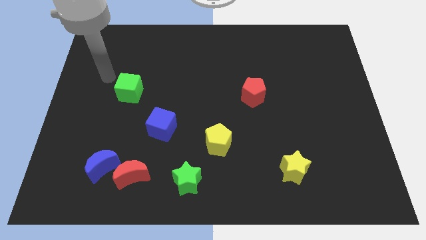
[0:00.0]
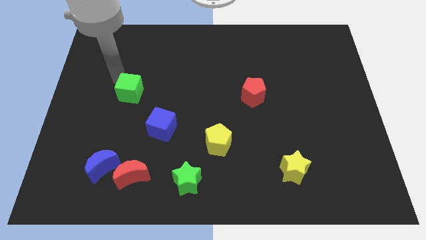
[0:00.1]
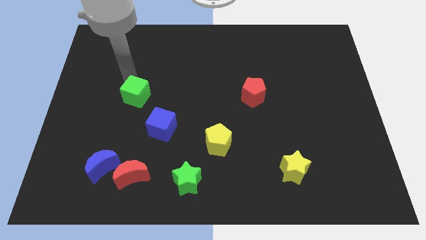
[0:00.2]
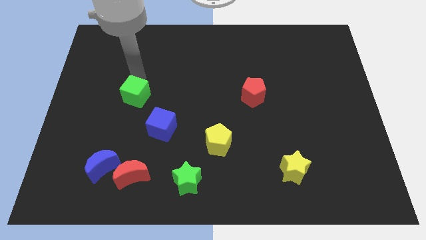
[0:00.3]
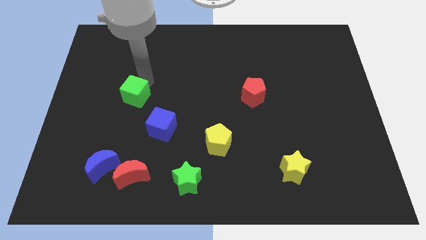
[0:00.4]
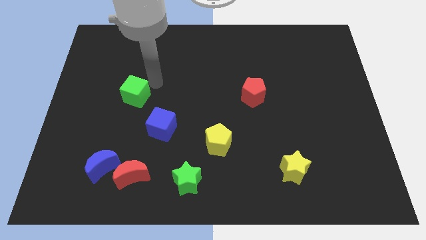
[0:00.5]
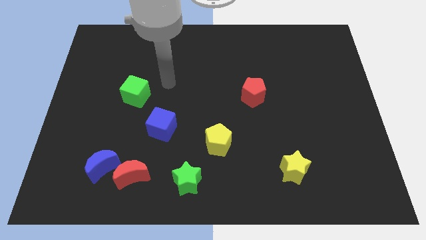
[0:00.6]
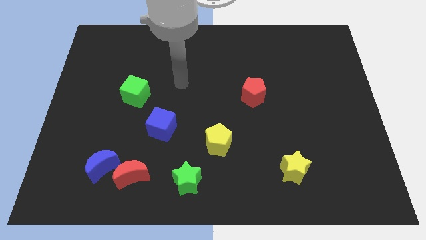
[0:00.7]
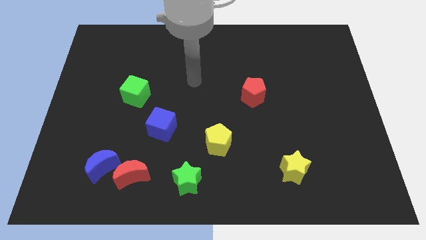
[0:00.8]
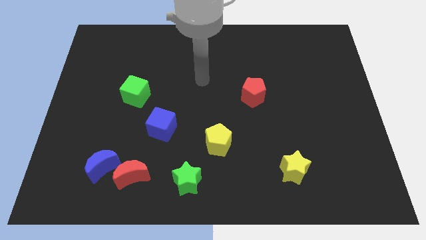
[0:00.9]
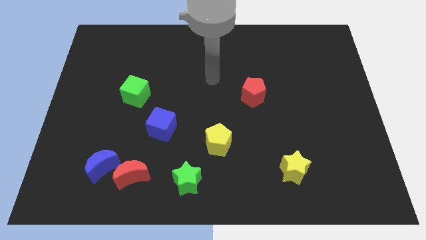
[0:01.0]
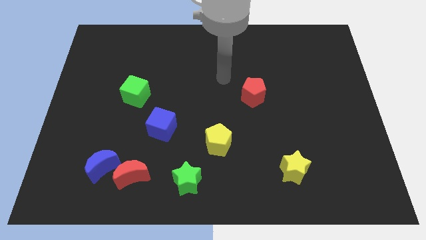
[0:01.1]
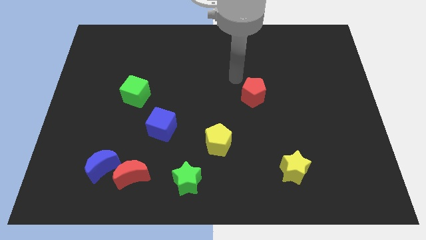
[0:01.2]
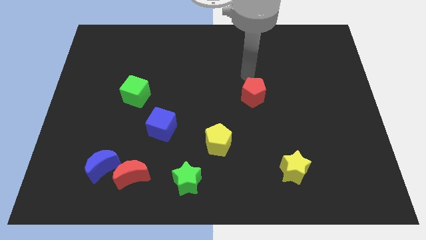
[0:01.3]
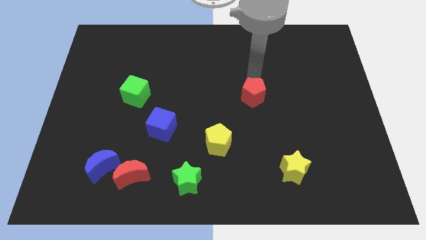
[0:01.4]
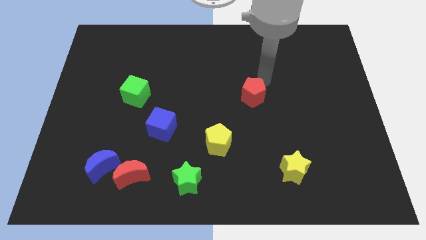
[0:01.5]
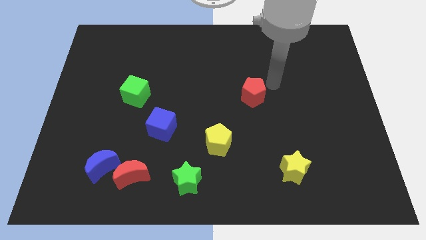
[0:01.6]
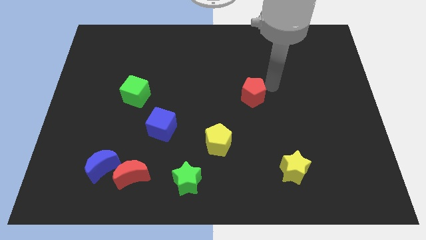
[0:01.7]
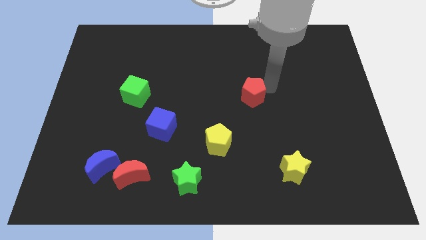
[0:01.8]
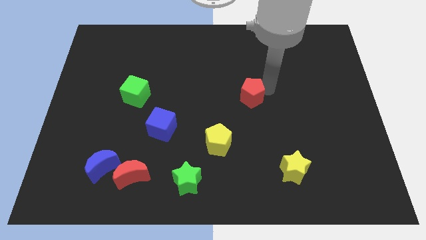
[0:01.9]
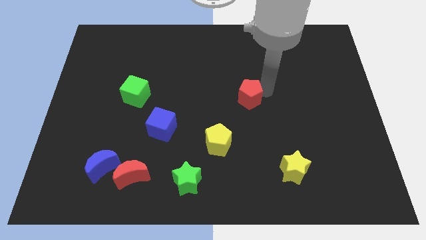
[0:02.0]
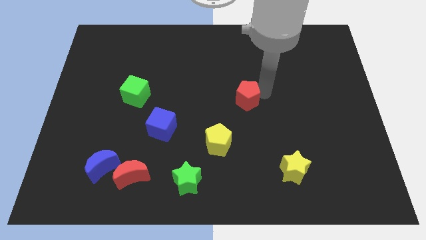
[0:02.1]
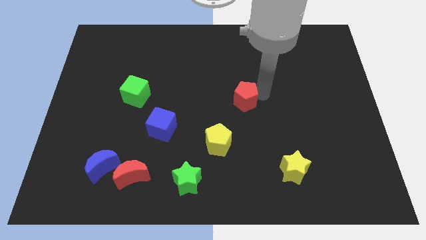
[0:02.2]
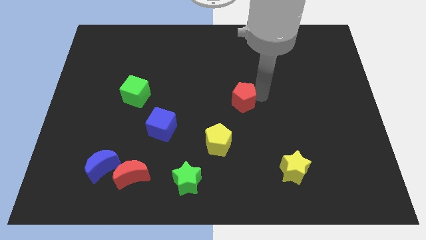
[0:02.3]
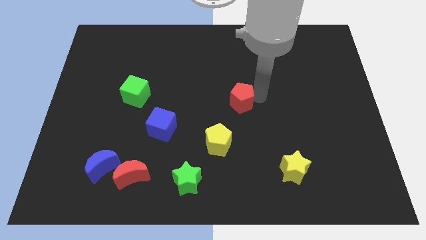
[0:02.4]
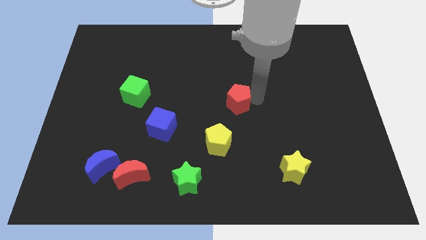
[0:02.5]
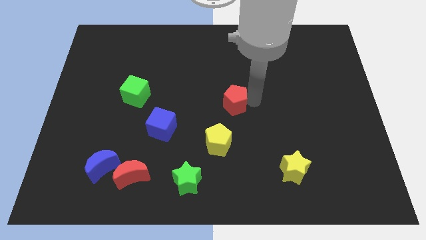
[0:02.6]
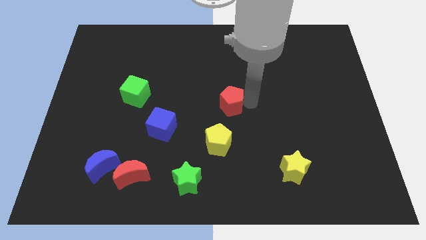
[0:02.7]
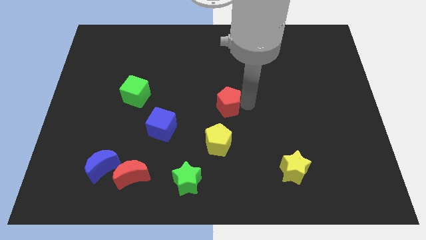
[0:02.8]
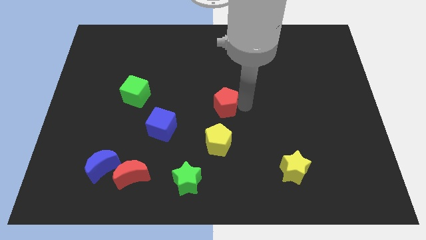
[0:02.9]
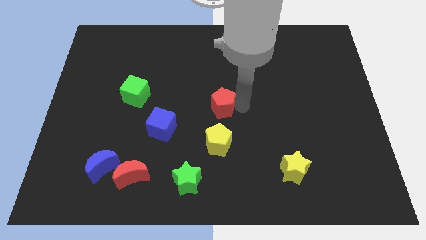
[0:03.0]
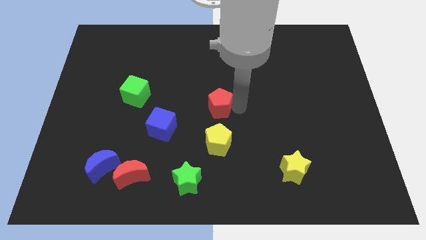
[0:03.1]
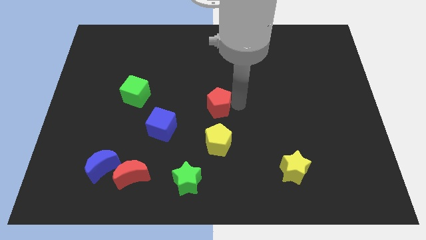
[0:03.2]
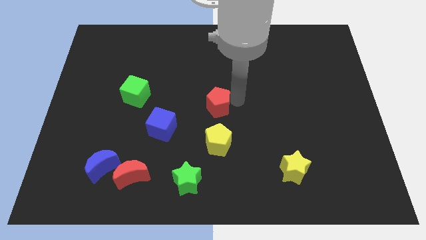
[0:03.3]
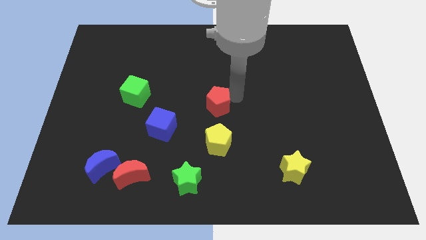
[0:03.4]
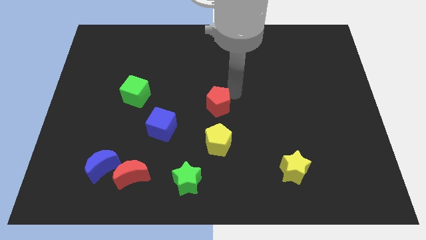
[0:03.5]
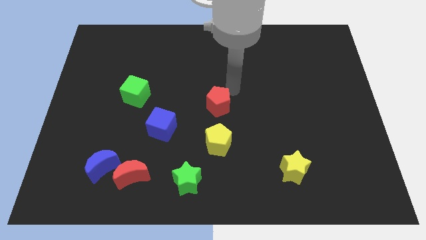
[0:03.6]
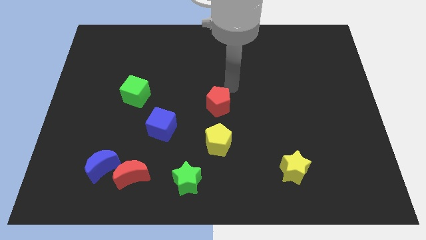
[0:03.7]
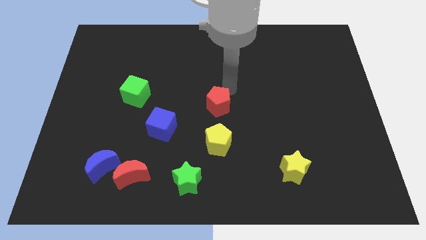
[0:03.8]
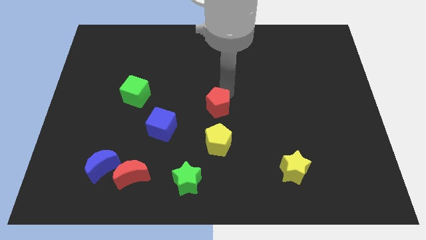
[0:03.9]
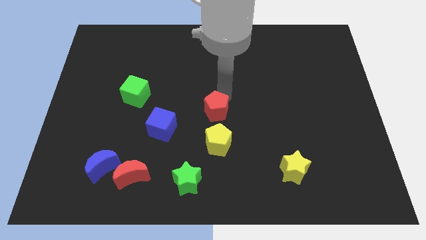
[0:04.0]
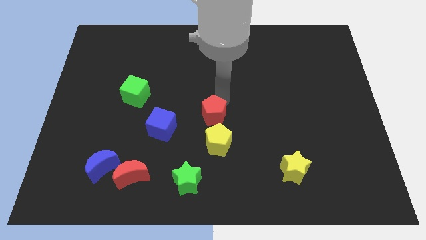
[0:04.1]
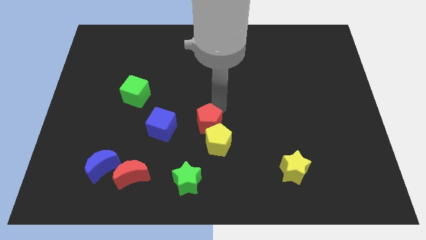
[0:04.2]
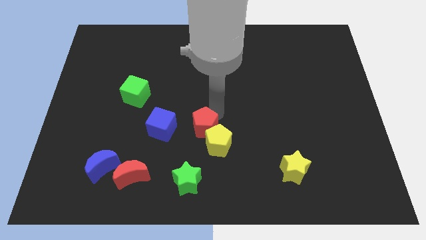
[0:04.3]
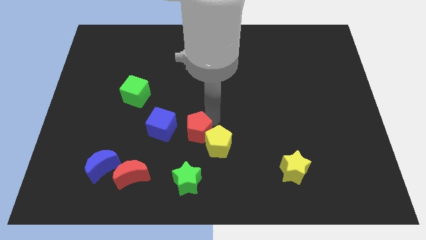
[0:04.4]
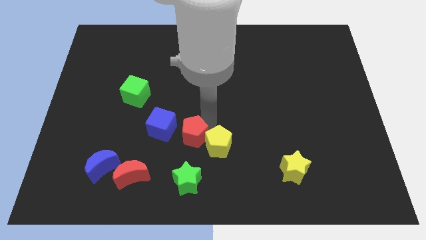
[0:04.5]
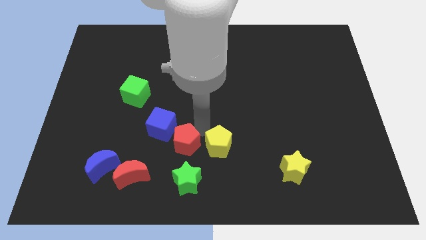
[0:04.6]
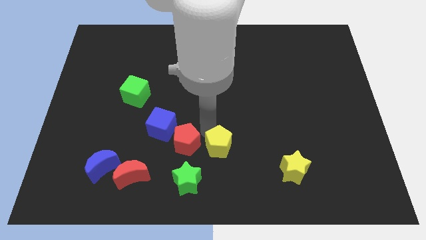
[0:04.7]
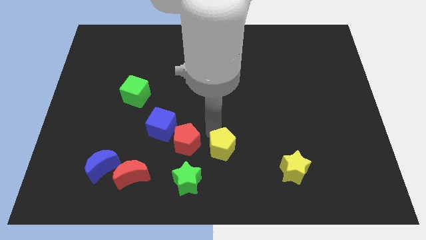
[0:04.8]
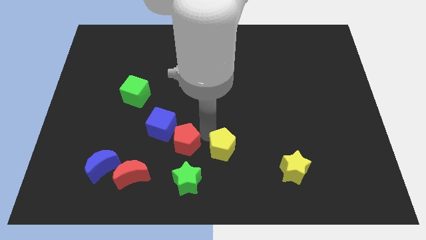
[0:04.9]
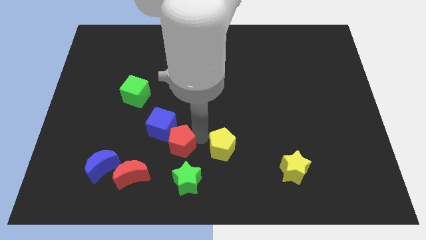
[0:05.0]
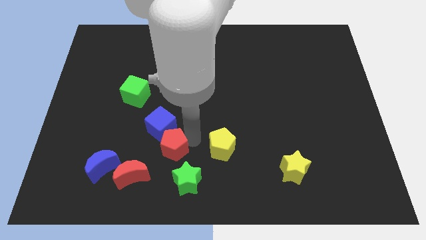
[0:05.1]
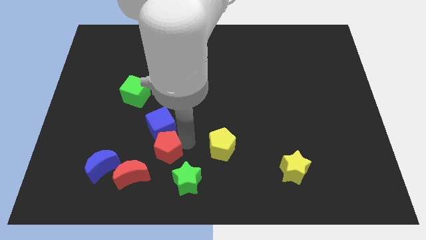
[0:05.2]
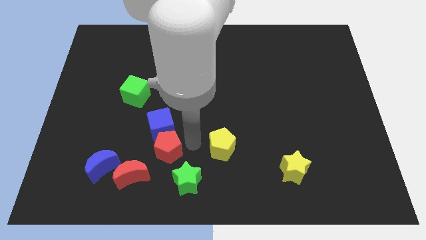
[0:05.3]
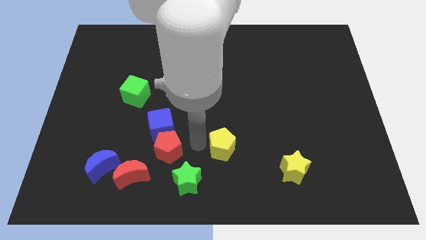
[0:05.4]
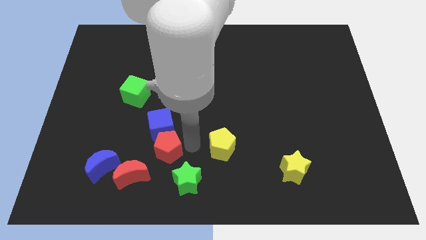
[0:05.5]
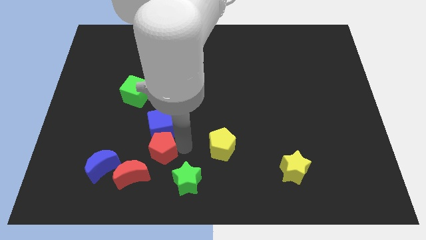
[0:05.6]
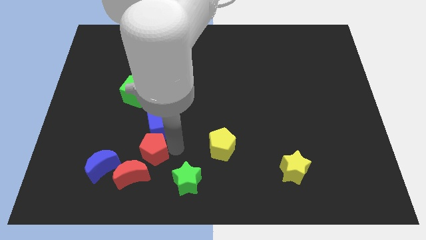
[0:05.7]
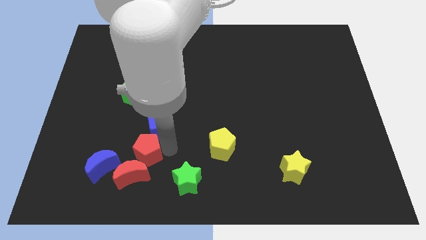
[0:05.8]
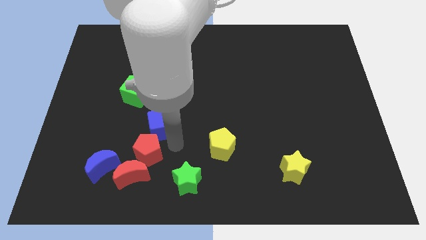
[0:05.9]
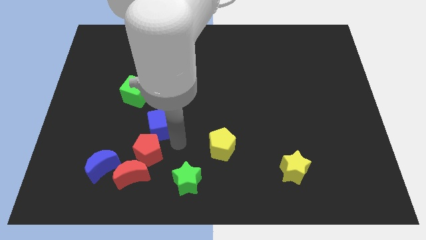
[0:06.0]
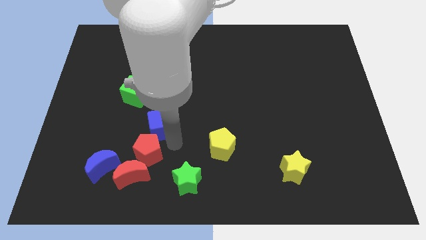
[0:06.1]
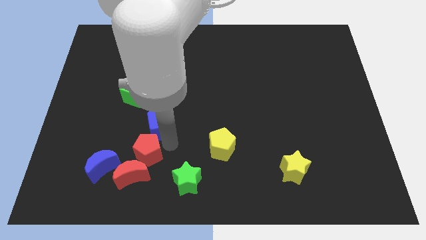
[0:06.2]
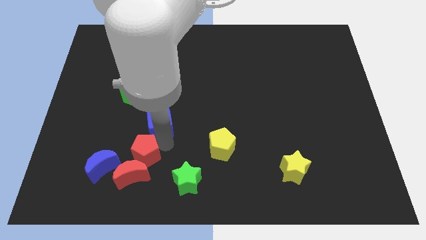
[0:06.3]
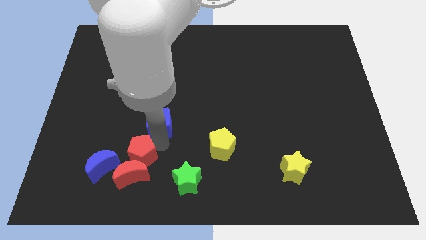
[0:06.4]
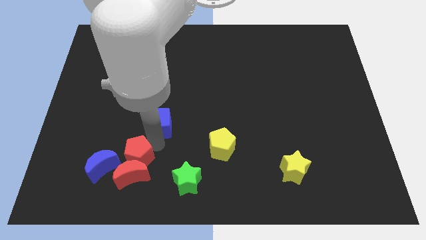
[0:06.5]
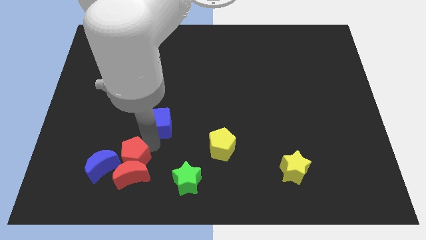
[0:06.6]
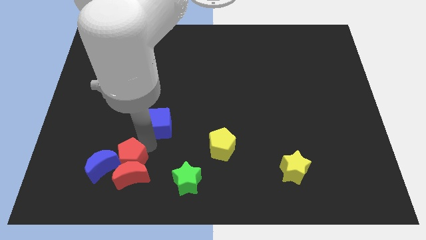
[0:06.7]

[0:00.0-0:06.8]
put the red pentagon close to the blue moon
